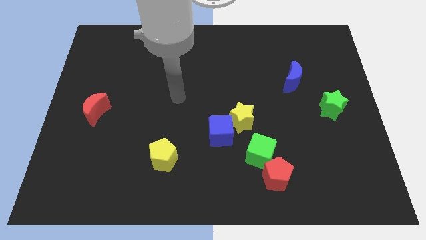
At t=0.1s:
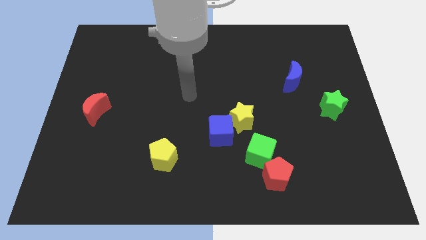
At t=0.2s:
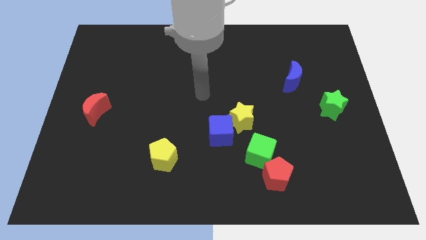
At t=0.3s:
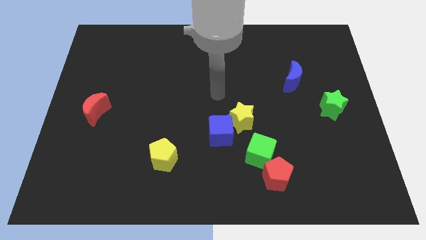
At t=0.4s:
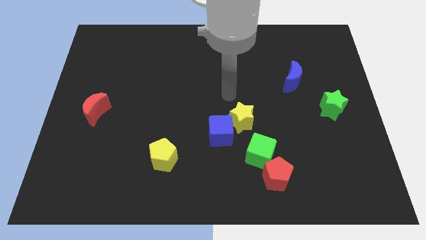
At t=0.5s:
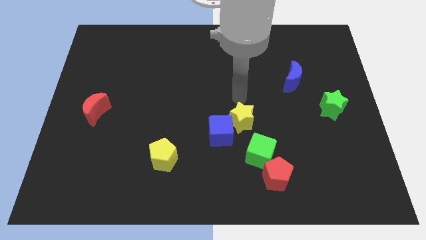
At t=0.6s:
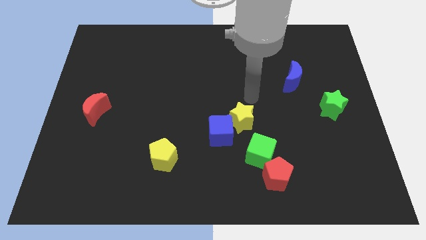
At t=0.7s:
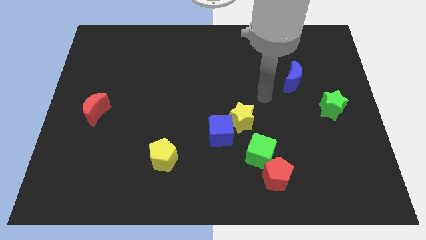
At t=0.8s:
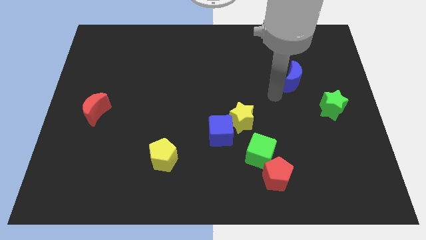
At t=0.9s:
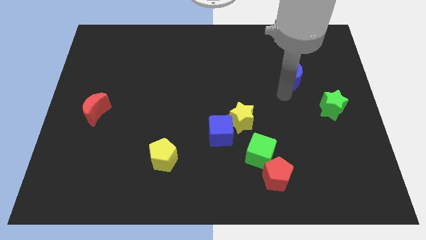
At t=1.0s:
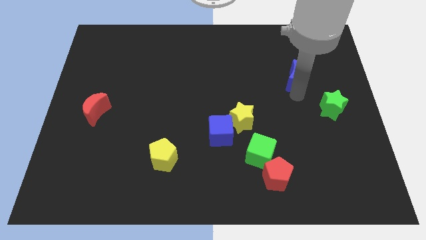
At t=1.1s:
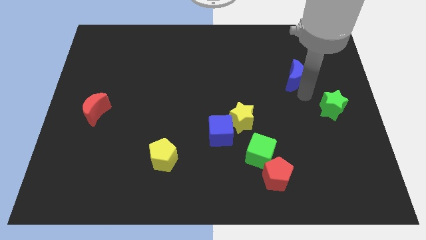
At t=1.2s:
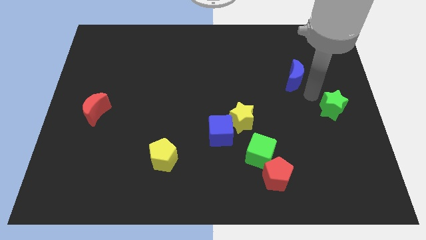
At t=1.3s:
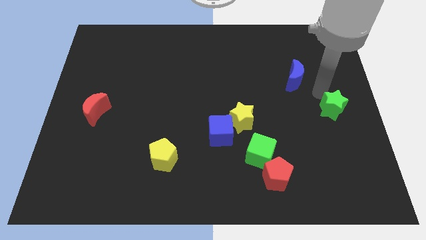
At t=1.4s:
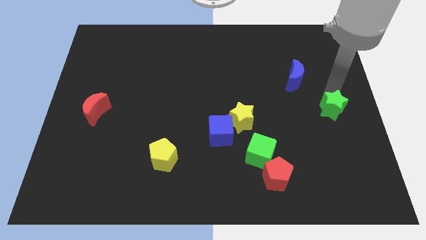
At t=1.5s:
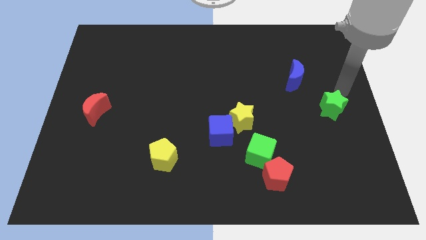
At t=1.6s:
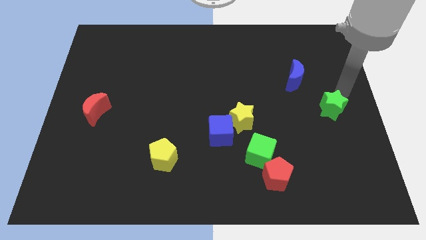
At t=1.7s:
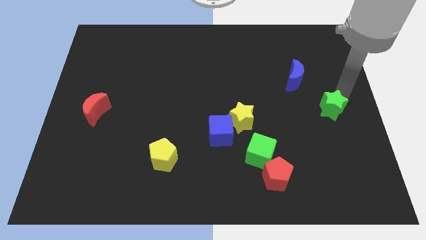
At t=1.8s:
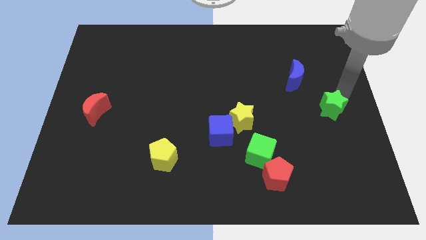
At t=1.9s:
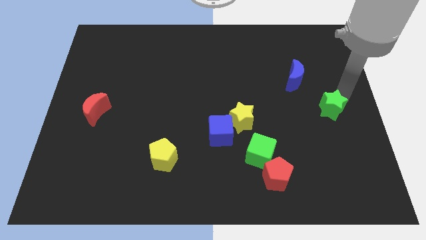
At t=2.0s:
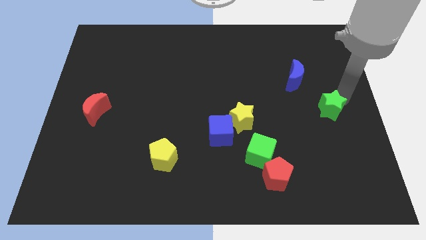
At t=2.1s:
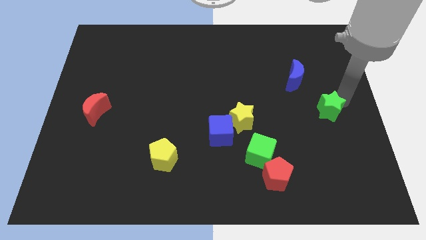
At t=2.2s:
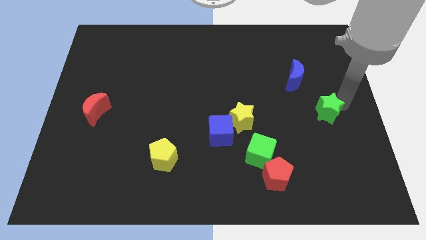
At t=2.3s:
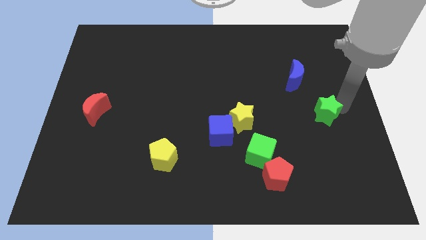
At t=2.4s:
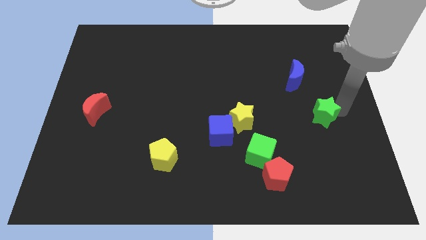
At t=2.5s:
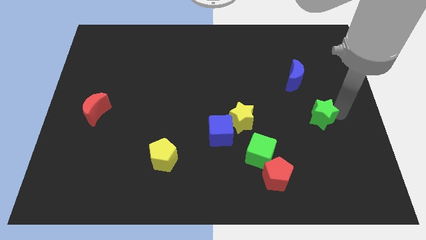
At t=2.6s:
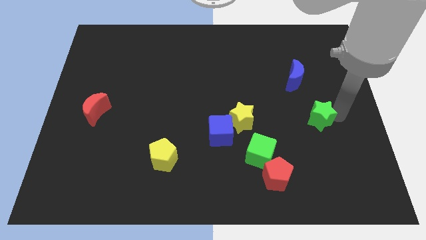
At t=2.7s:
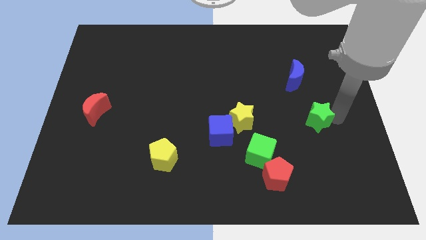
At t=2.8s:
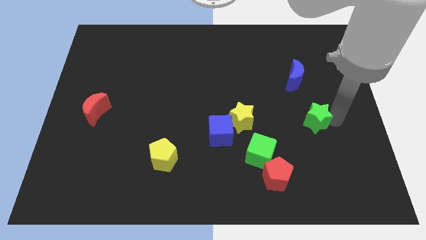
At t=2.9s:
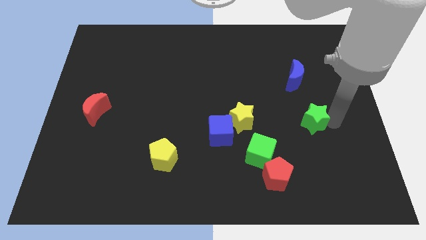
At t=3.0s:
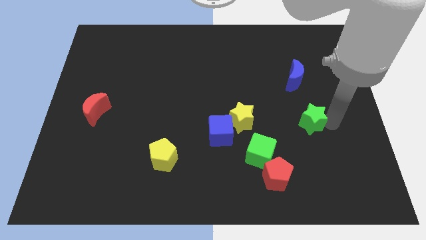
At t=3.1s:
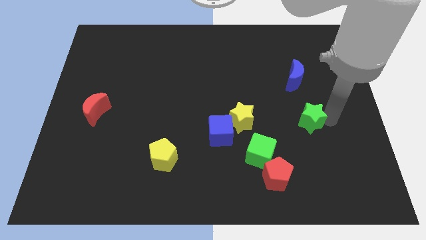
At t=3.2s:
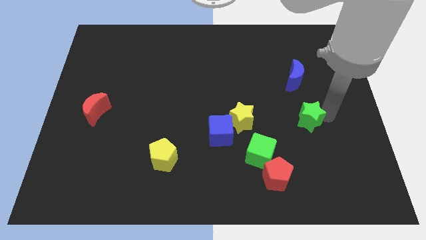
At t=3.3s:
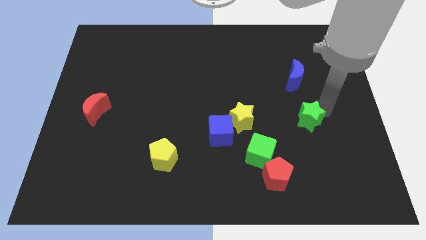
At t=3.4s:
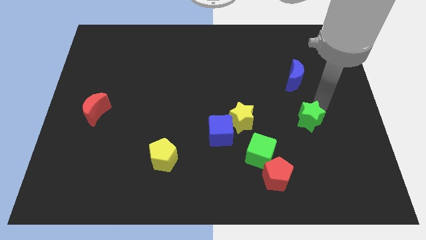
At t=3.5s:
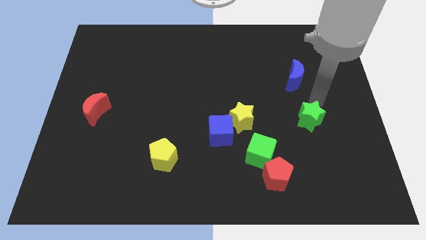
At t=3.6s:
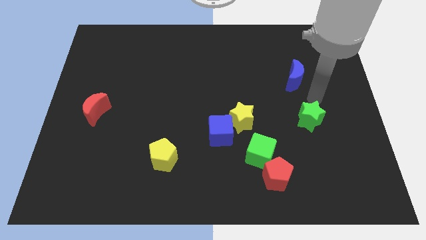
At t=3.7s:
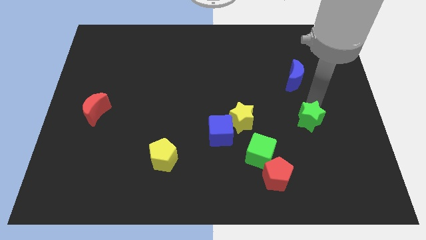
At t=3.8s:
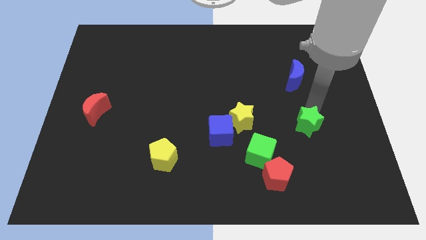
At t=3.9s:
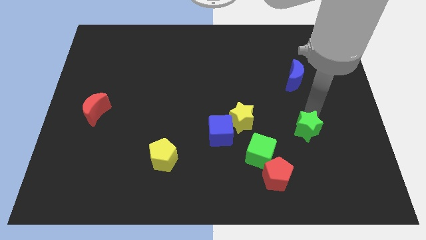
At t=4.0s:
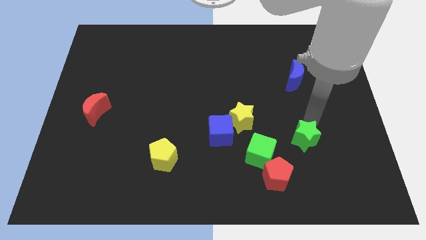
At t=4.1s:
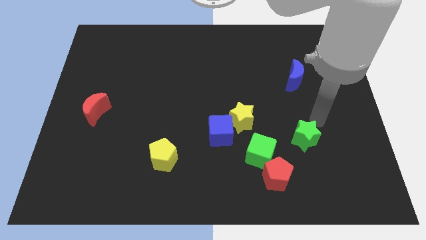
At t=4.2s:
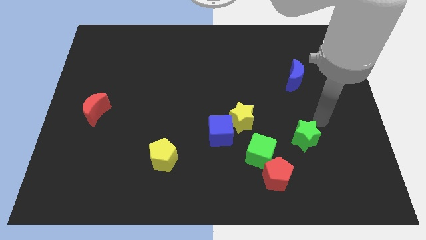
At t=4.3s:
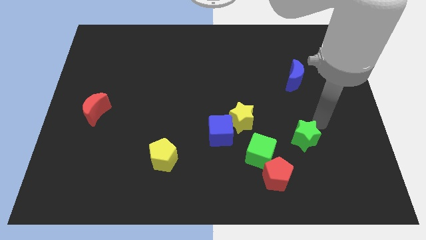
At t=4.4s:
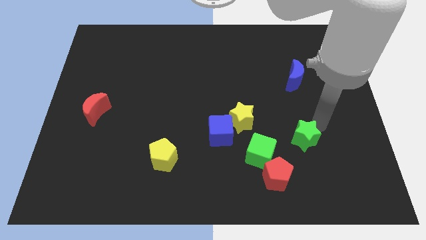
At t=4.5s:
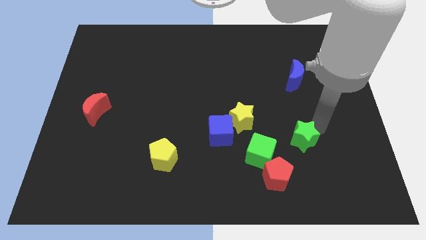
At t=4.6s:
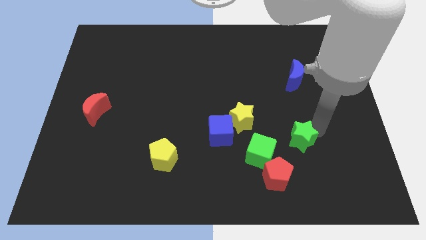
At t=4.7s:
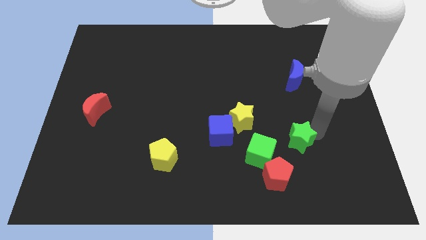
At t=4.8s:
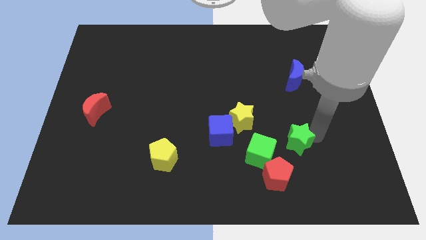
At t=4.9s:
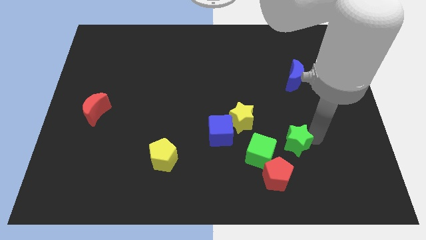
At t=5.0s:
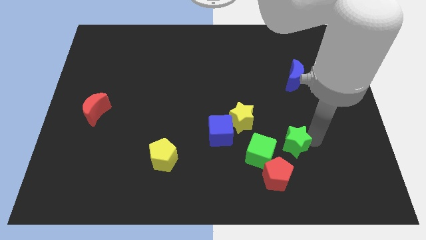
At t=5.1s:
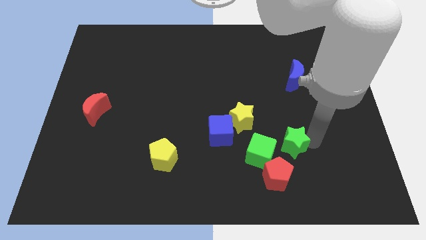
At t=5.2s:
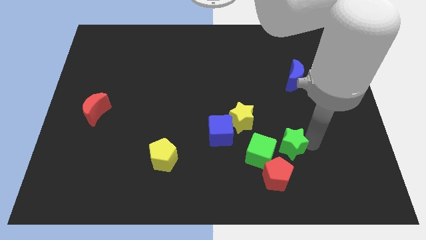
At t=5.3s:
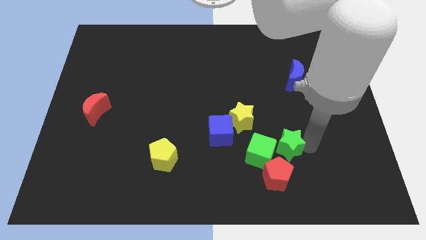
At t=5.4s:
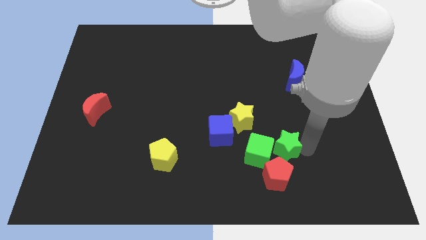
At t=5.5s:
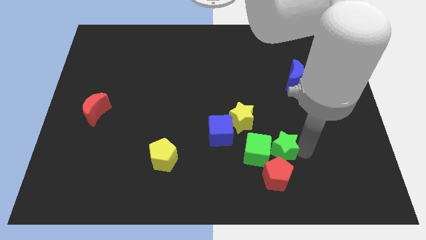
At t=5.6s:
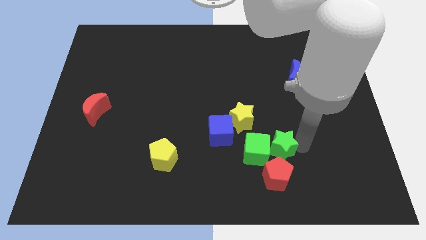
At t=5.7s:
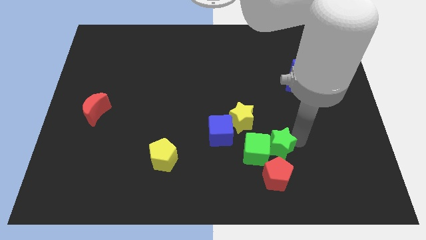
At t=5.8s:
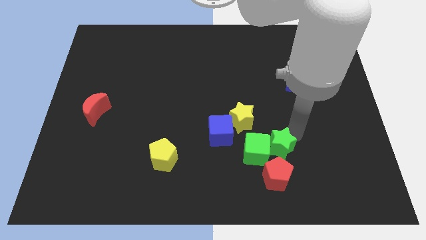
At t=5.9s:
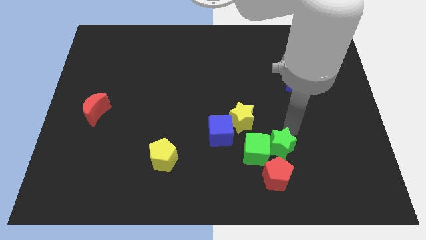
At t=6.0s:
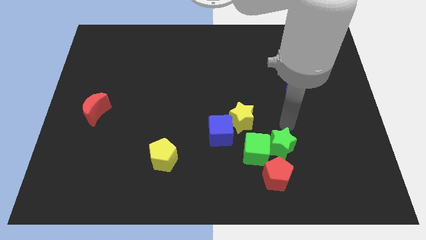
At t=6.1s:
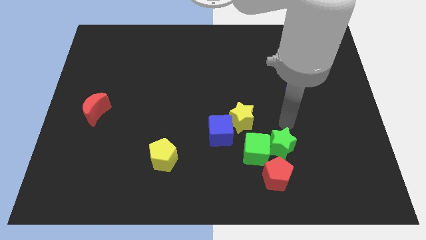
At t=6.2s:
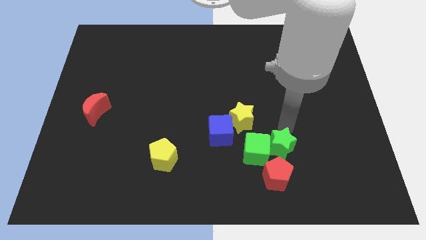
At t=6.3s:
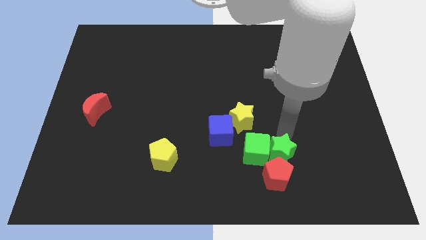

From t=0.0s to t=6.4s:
push the green star close to the red pentagon

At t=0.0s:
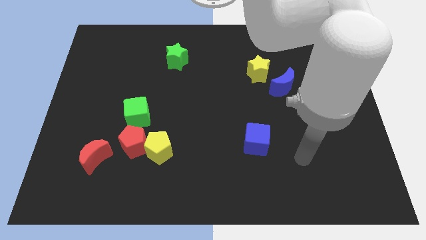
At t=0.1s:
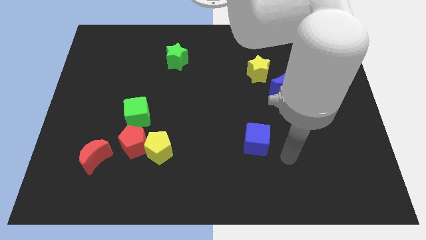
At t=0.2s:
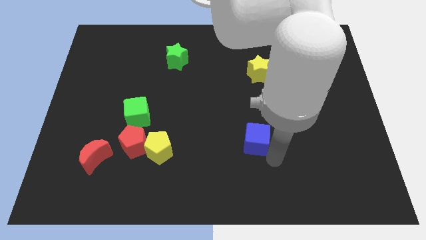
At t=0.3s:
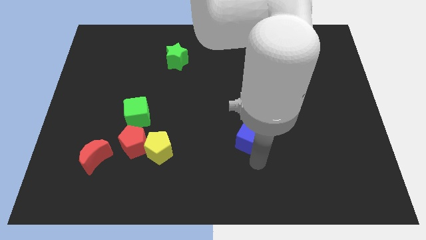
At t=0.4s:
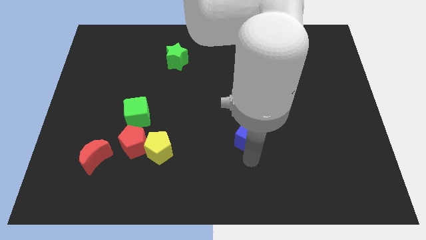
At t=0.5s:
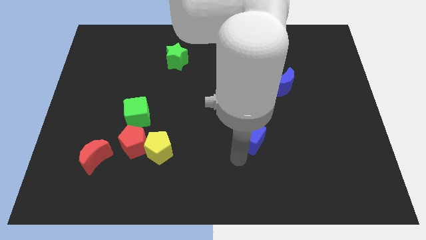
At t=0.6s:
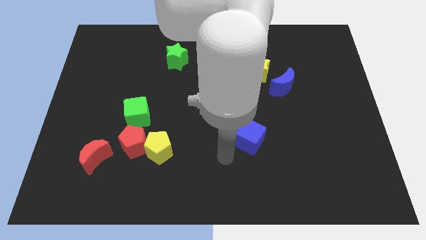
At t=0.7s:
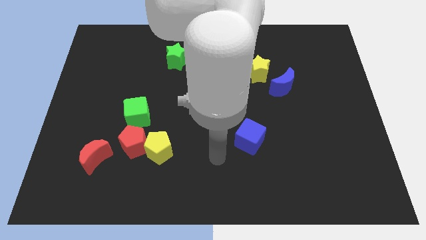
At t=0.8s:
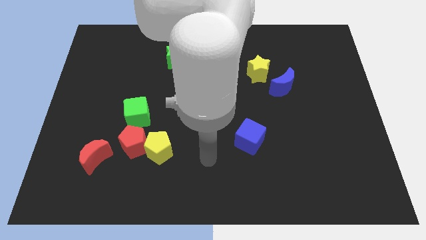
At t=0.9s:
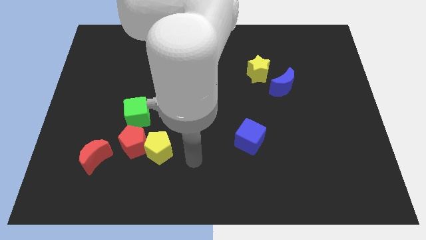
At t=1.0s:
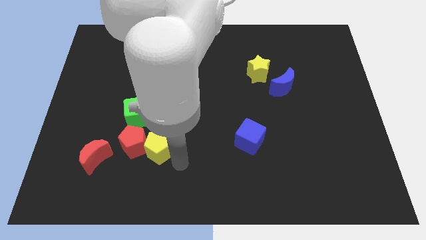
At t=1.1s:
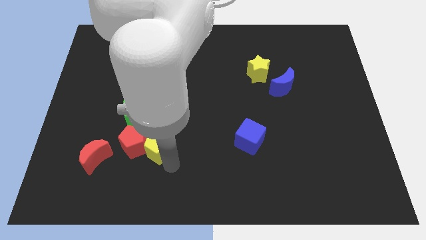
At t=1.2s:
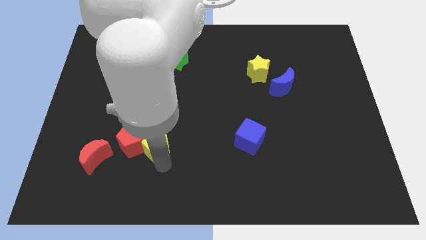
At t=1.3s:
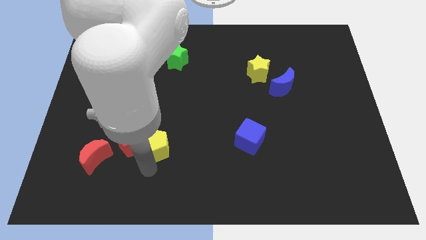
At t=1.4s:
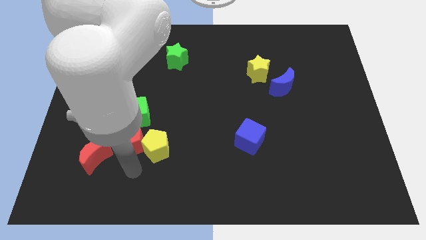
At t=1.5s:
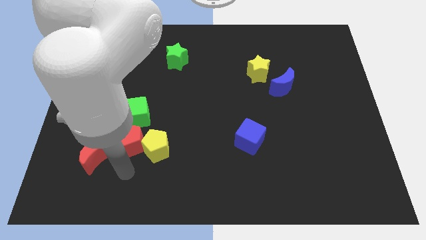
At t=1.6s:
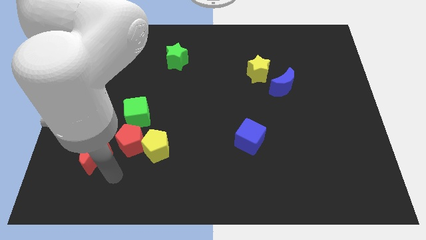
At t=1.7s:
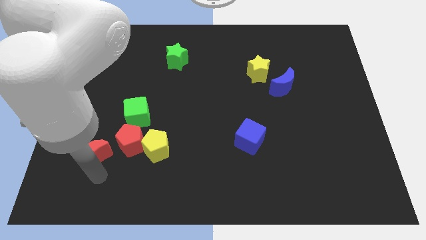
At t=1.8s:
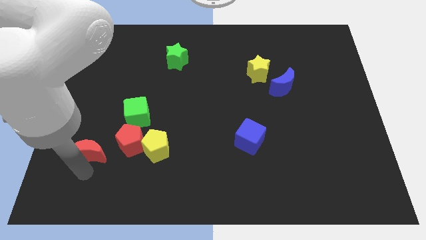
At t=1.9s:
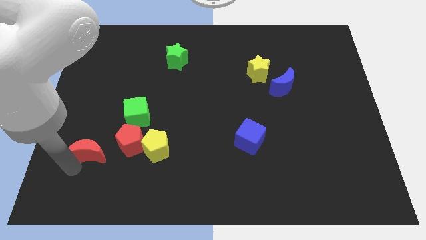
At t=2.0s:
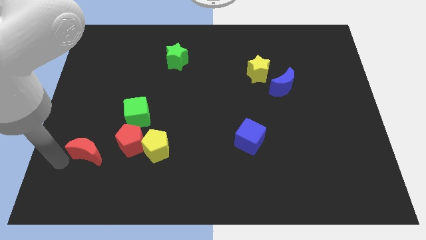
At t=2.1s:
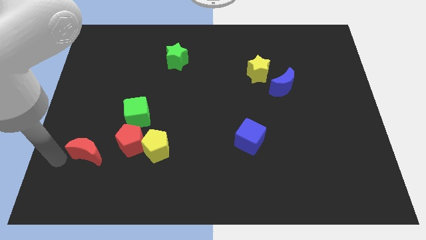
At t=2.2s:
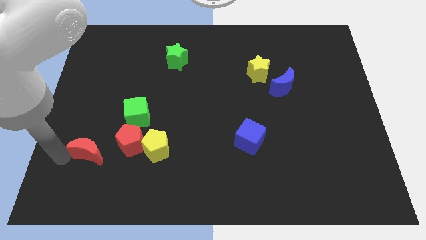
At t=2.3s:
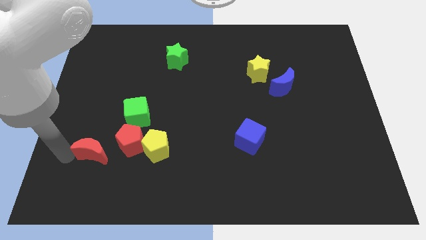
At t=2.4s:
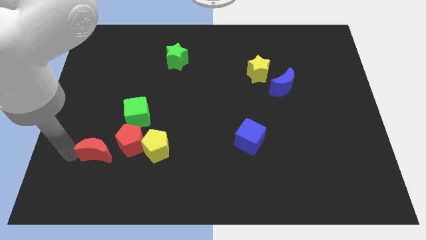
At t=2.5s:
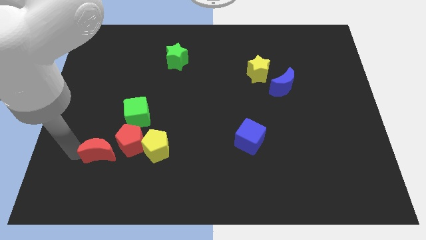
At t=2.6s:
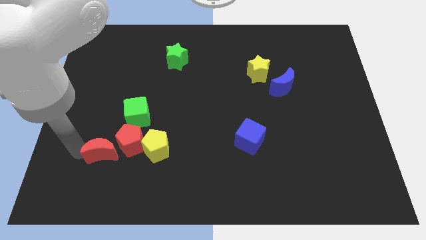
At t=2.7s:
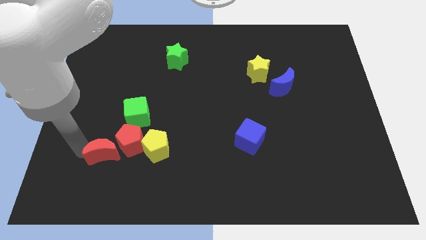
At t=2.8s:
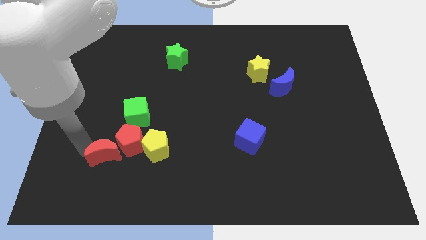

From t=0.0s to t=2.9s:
move the red moon towards the red pentagon
